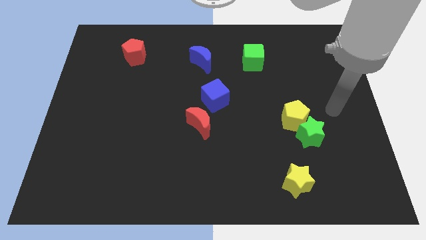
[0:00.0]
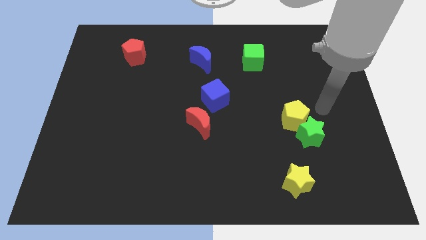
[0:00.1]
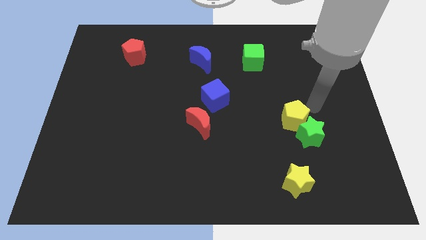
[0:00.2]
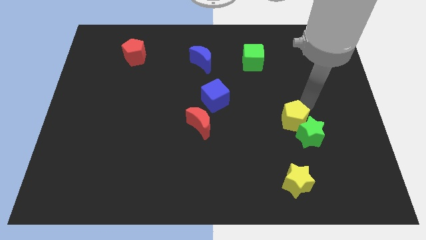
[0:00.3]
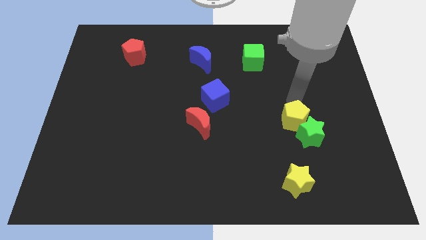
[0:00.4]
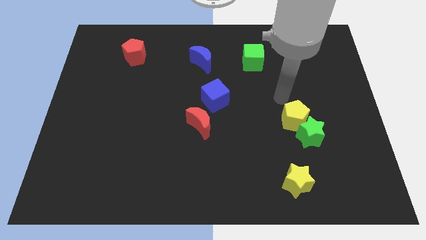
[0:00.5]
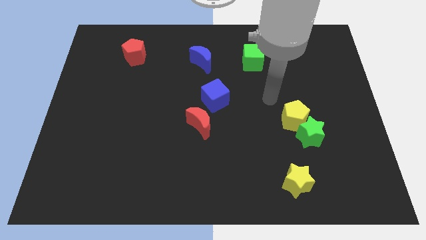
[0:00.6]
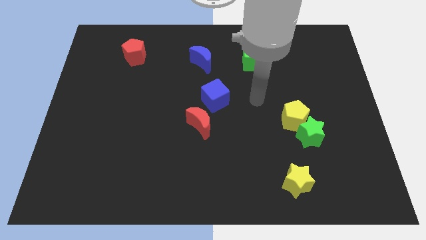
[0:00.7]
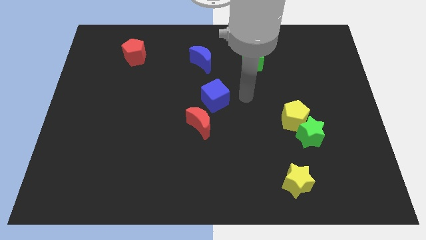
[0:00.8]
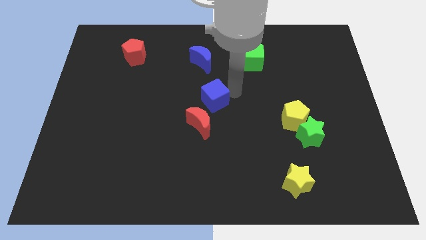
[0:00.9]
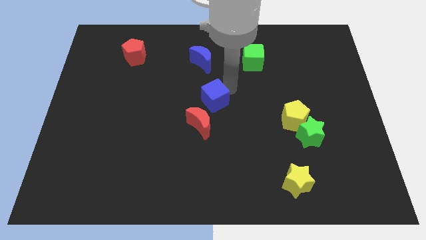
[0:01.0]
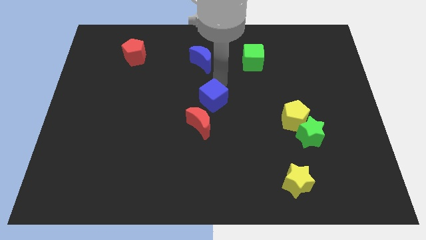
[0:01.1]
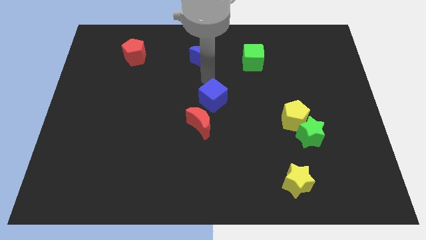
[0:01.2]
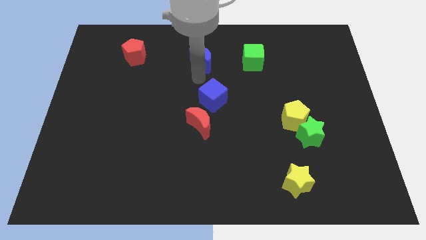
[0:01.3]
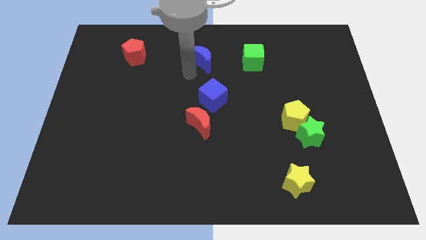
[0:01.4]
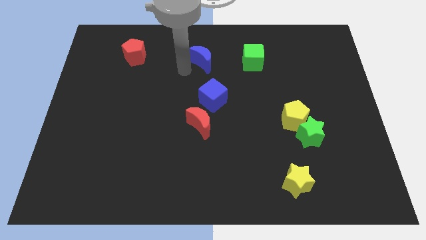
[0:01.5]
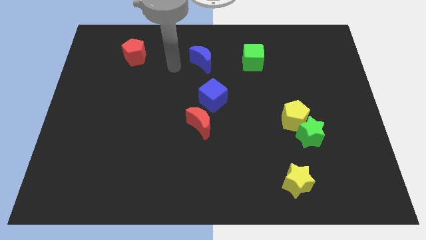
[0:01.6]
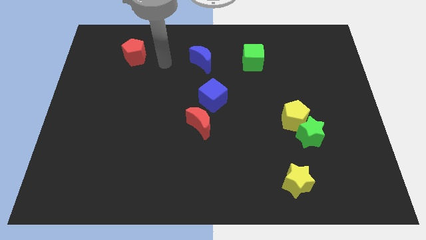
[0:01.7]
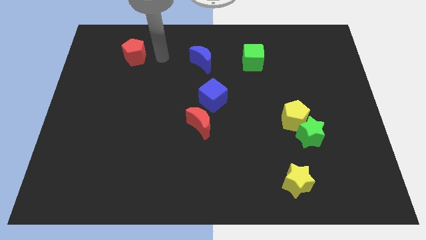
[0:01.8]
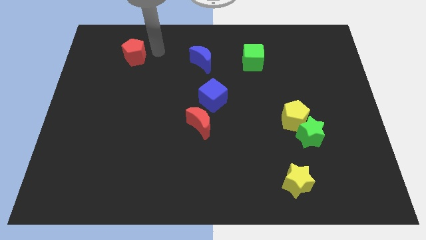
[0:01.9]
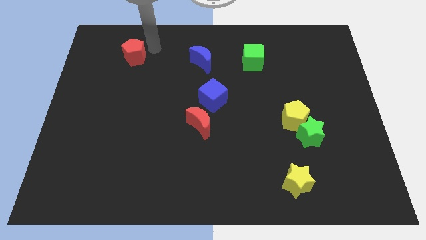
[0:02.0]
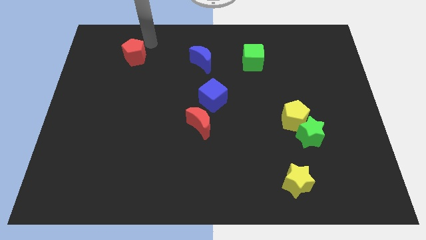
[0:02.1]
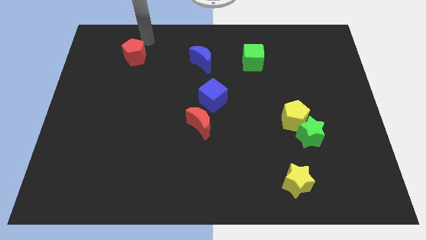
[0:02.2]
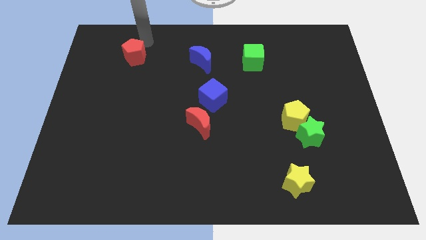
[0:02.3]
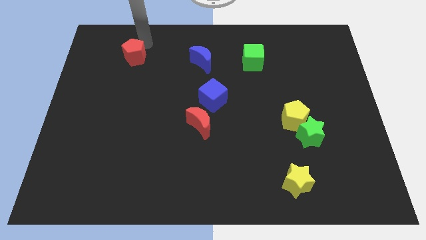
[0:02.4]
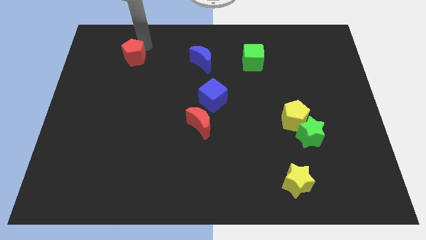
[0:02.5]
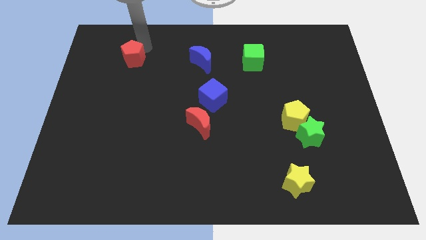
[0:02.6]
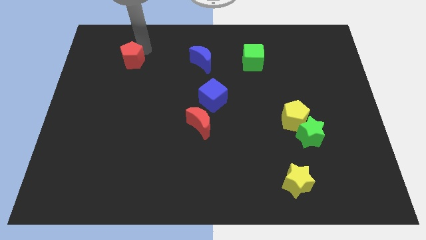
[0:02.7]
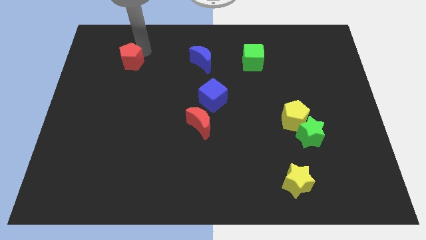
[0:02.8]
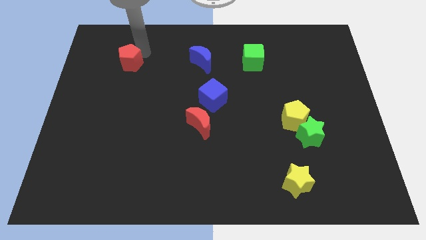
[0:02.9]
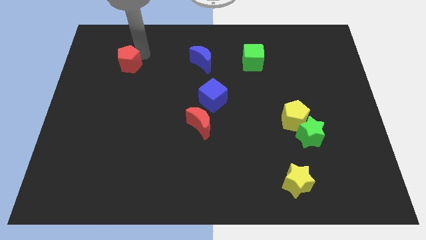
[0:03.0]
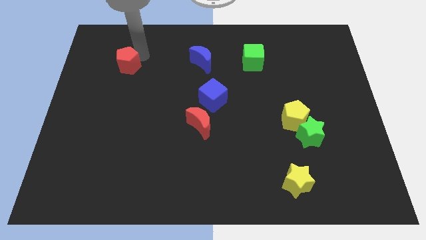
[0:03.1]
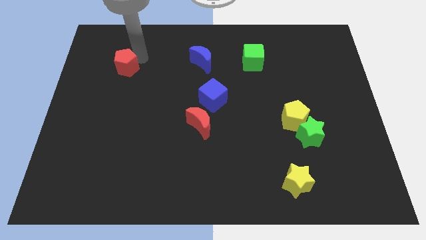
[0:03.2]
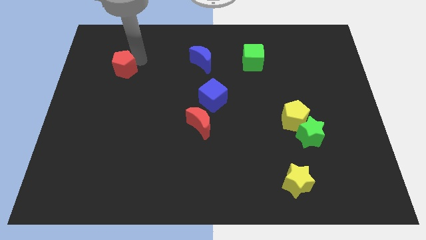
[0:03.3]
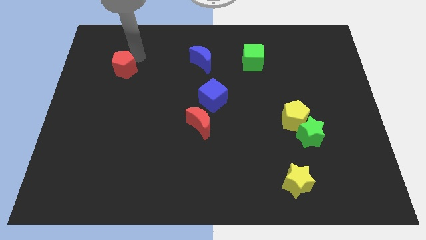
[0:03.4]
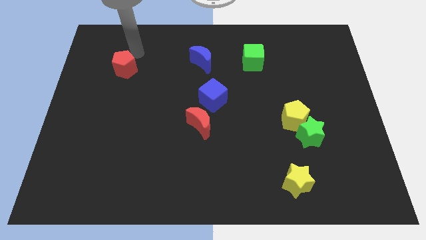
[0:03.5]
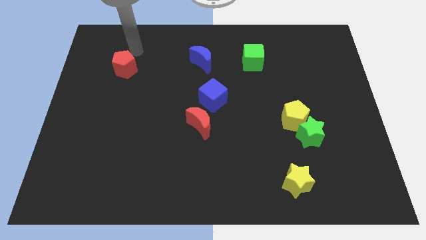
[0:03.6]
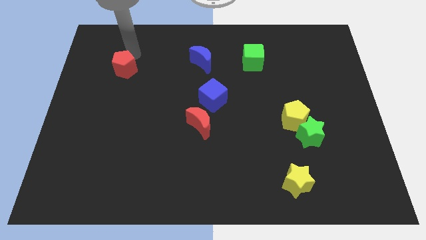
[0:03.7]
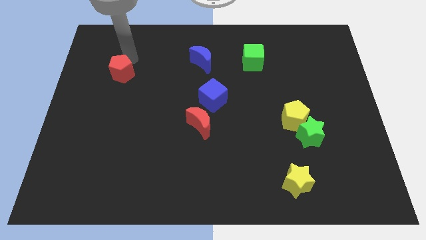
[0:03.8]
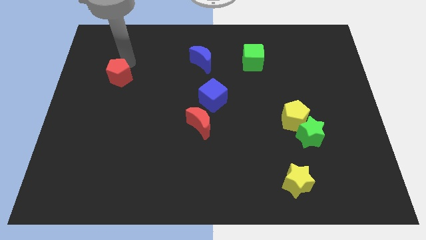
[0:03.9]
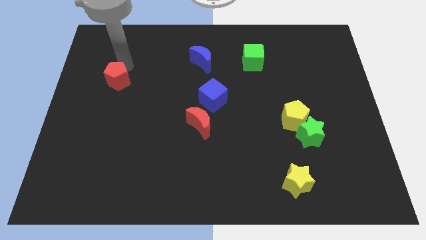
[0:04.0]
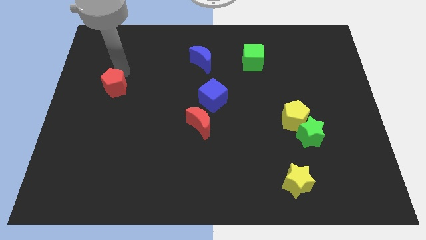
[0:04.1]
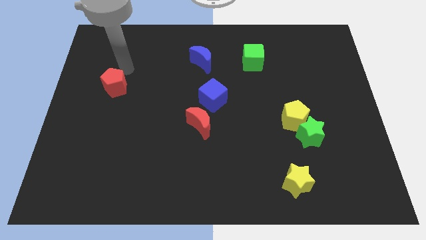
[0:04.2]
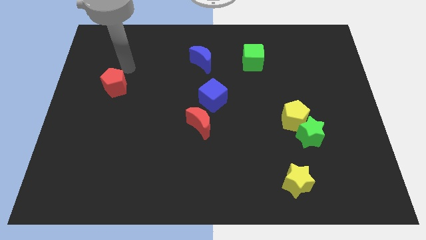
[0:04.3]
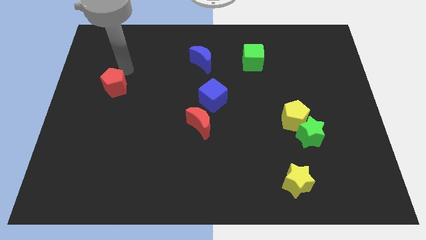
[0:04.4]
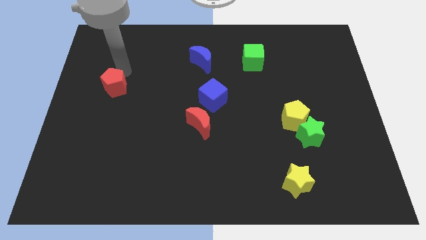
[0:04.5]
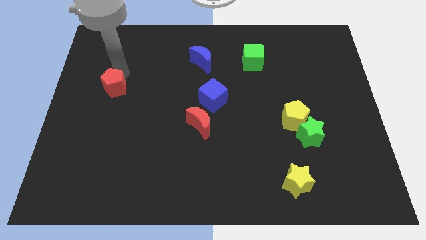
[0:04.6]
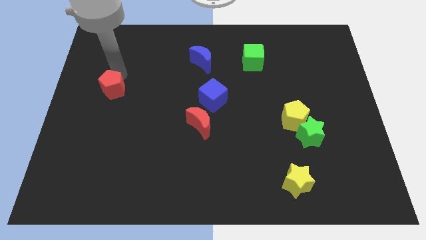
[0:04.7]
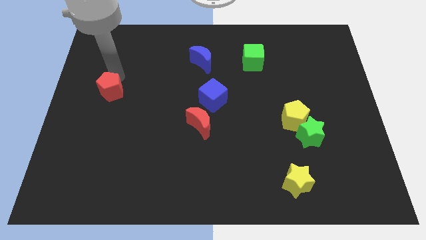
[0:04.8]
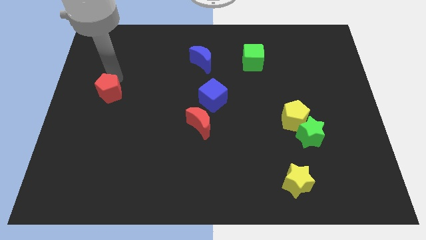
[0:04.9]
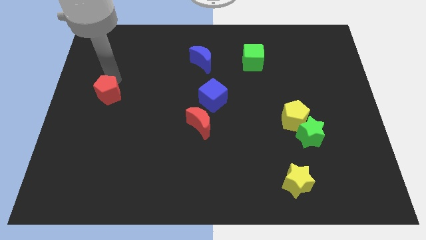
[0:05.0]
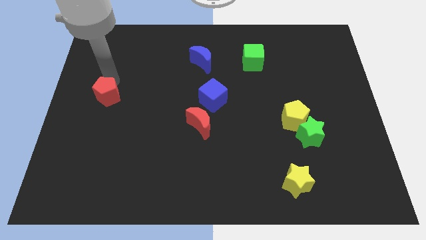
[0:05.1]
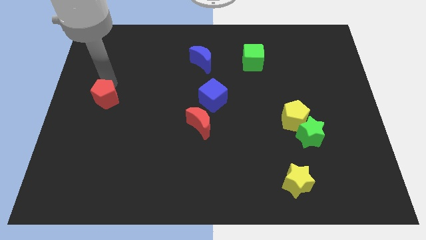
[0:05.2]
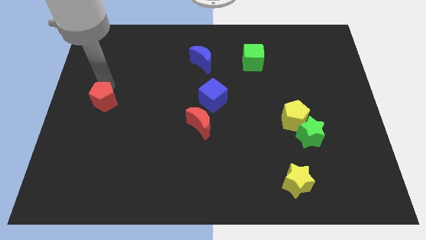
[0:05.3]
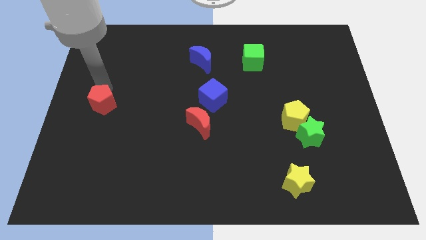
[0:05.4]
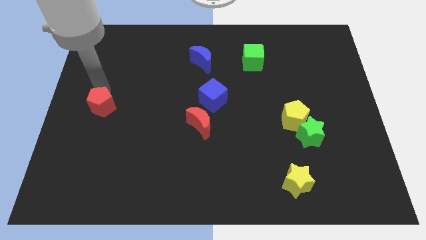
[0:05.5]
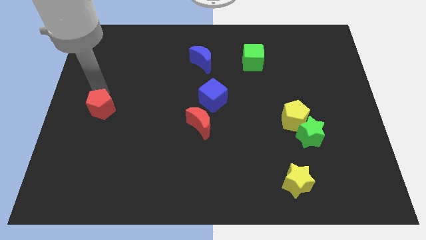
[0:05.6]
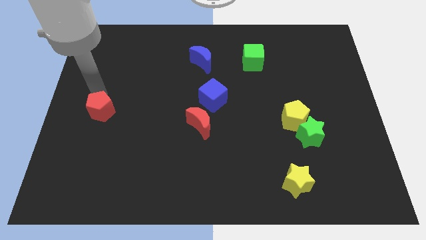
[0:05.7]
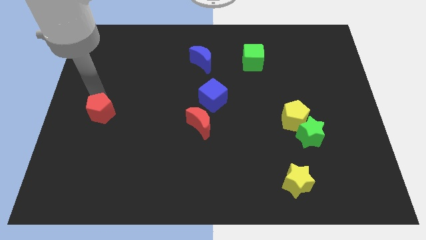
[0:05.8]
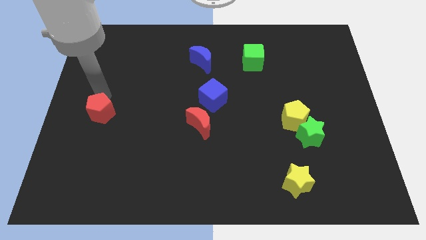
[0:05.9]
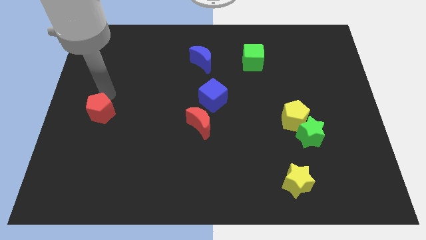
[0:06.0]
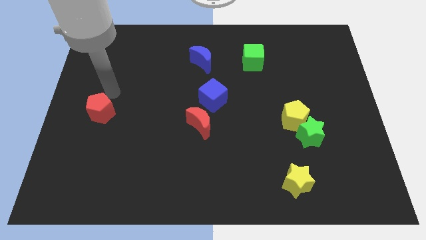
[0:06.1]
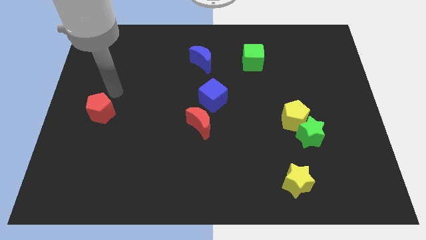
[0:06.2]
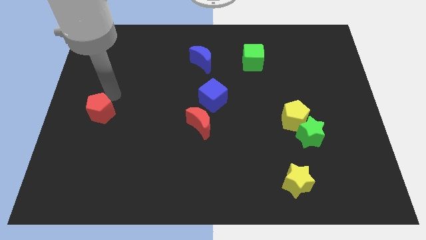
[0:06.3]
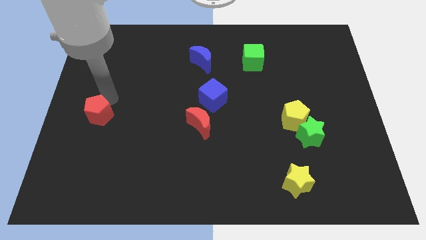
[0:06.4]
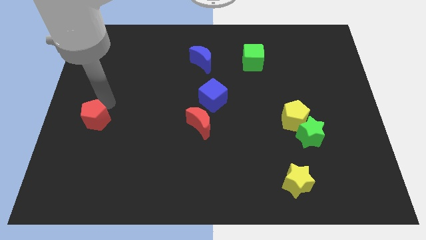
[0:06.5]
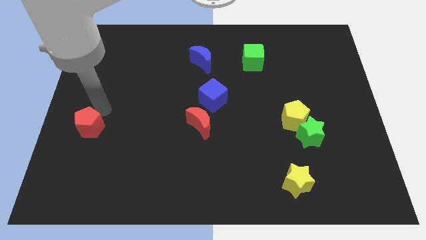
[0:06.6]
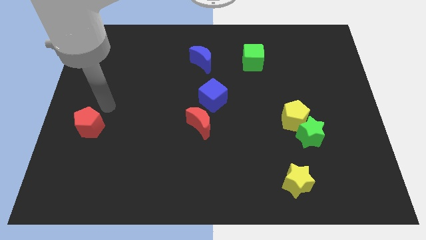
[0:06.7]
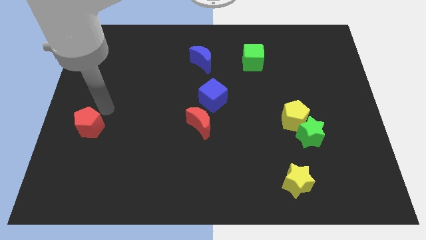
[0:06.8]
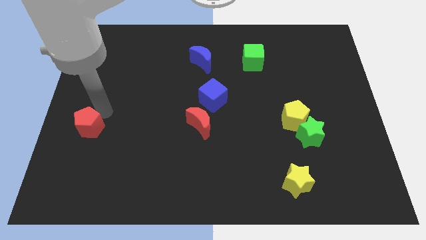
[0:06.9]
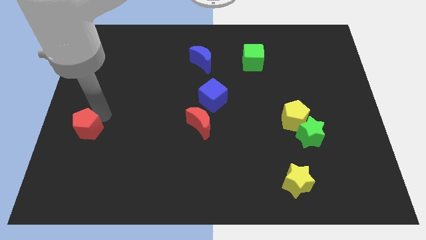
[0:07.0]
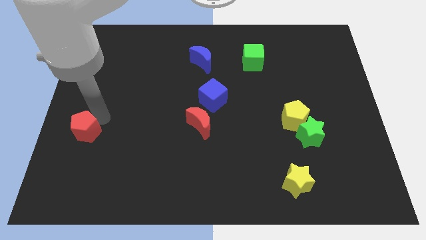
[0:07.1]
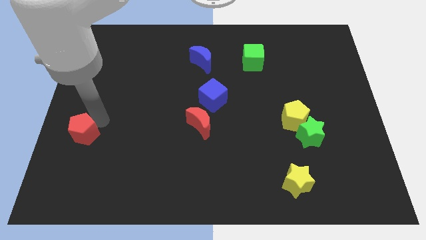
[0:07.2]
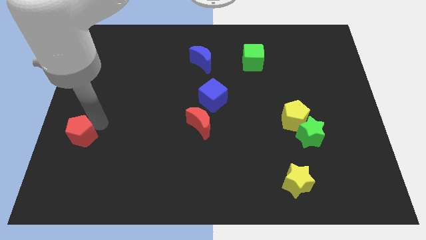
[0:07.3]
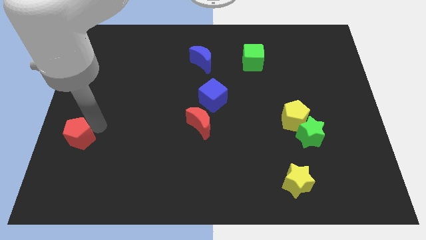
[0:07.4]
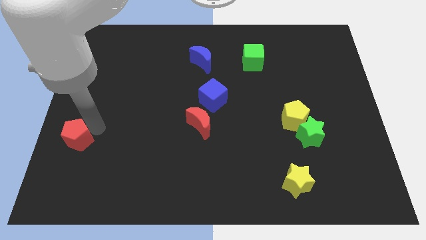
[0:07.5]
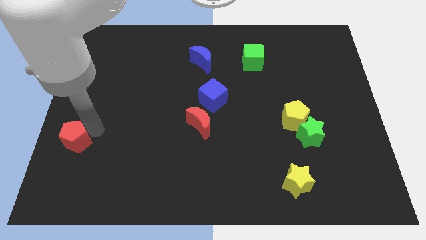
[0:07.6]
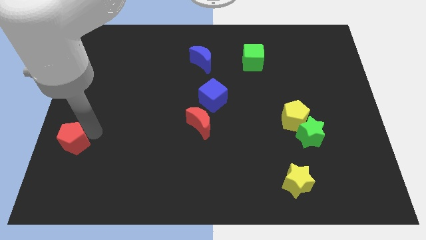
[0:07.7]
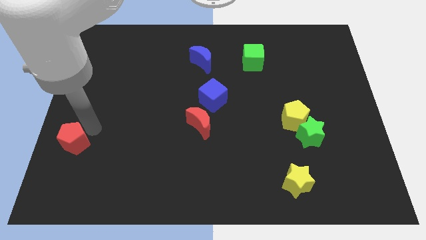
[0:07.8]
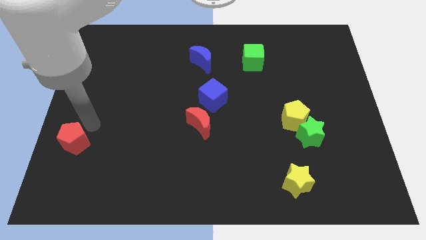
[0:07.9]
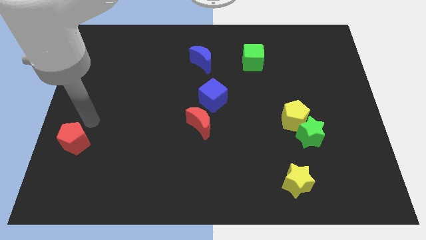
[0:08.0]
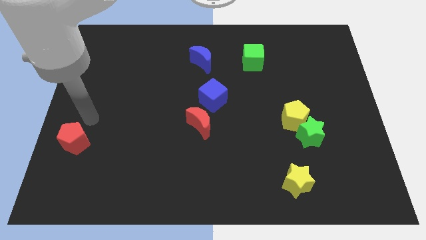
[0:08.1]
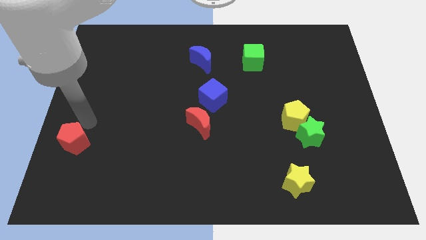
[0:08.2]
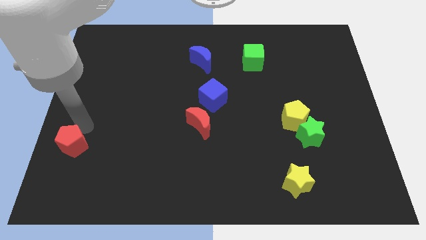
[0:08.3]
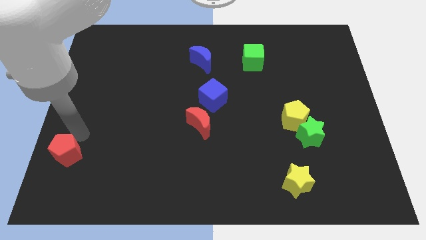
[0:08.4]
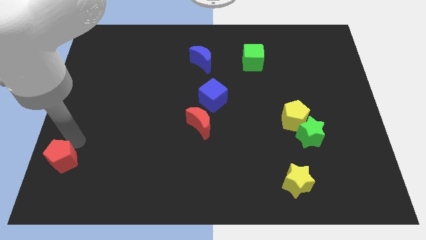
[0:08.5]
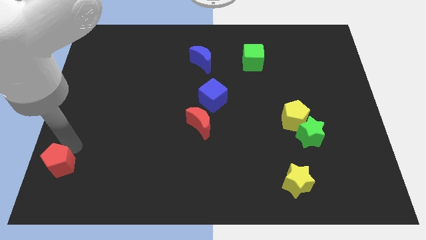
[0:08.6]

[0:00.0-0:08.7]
slide the red pentagon to the bottom left corner
